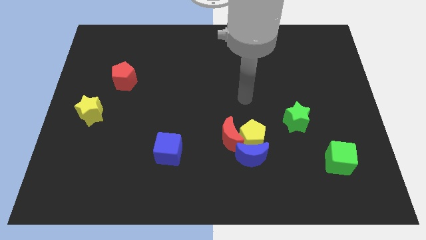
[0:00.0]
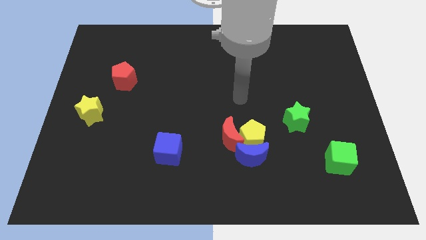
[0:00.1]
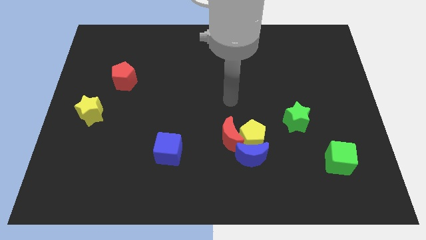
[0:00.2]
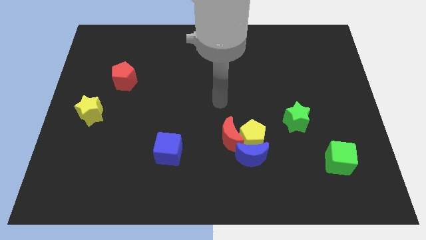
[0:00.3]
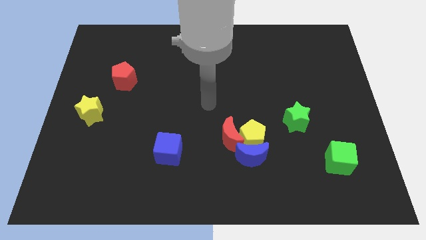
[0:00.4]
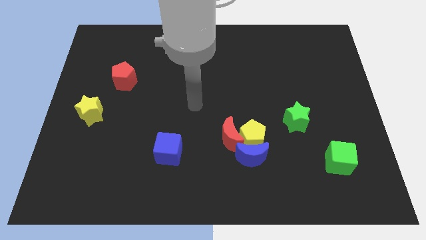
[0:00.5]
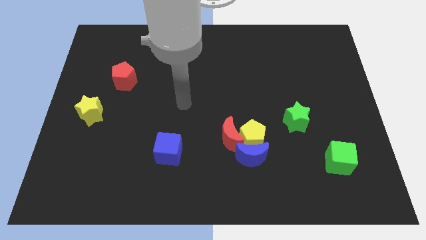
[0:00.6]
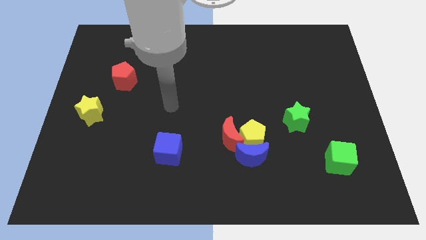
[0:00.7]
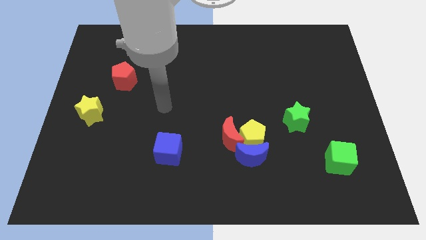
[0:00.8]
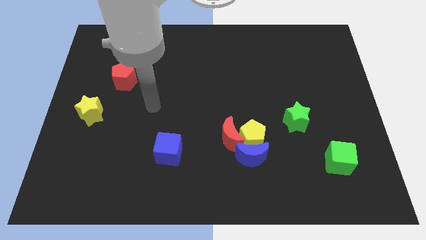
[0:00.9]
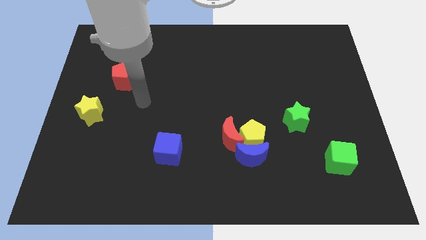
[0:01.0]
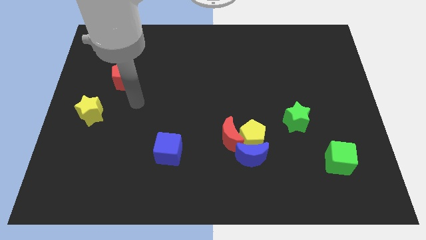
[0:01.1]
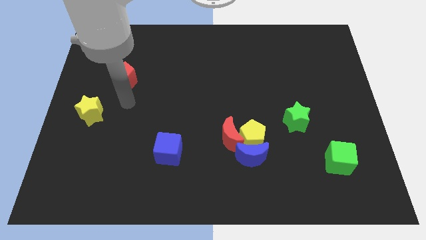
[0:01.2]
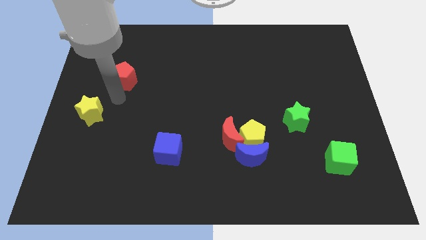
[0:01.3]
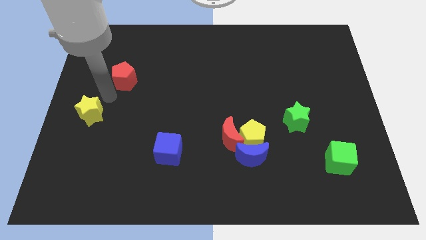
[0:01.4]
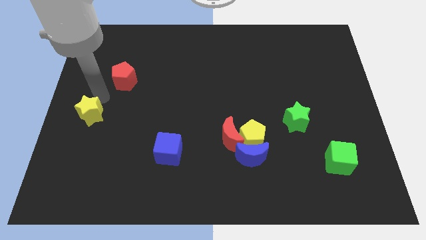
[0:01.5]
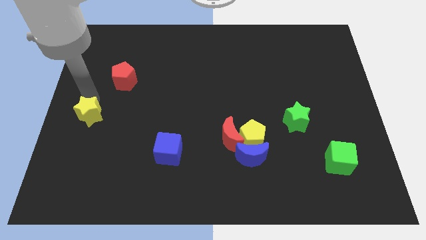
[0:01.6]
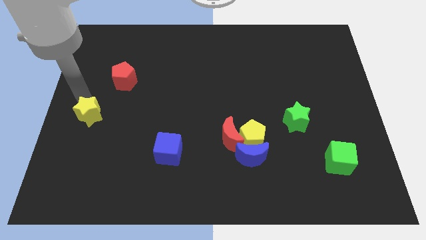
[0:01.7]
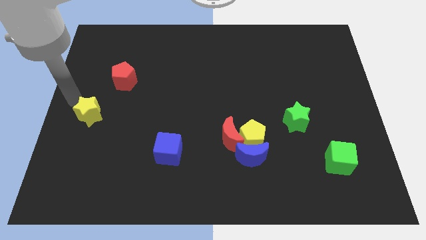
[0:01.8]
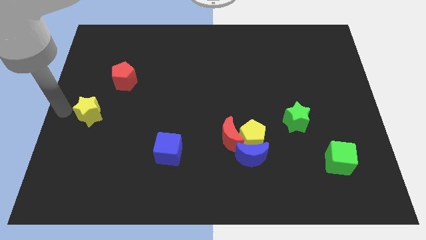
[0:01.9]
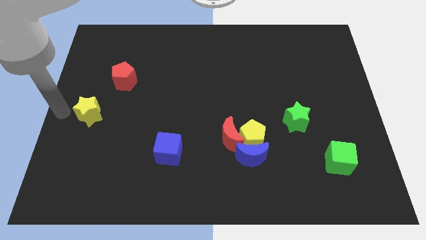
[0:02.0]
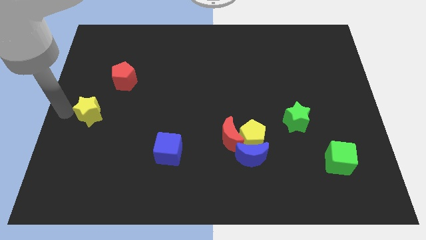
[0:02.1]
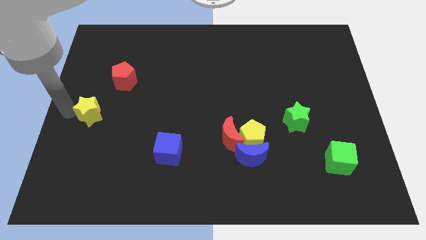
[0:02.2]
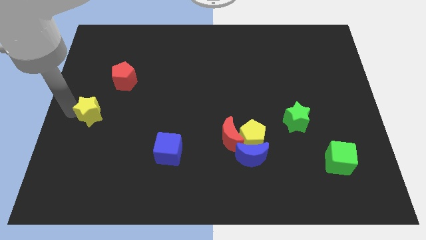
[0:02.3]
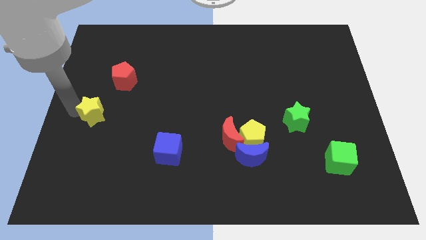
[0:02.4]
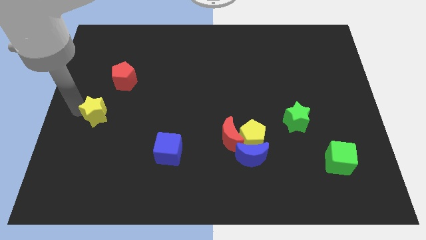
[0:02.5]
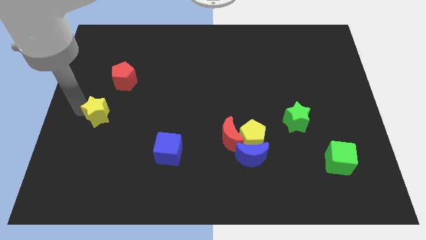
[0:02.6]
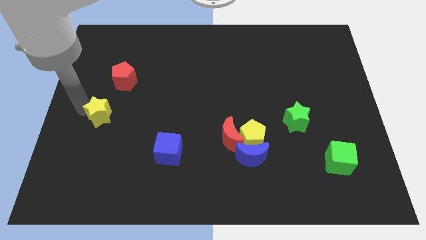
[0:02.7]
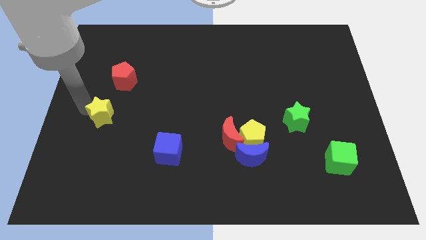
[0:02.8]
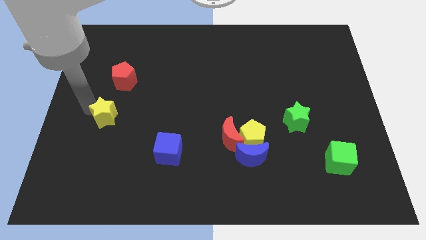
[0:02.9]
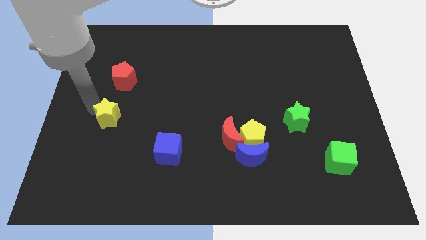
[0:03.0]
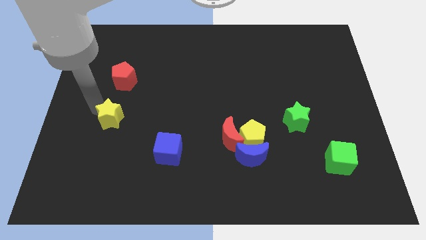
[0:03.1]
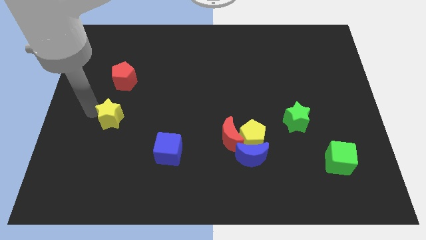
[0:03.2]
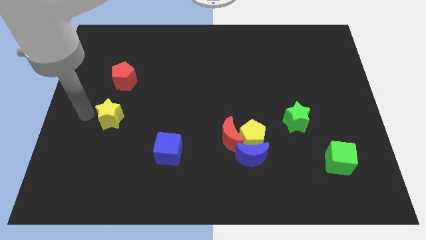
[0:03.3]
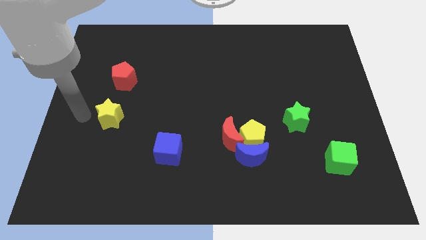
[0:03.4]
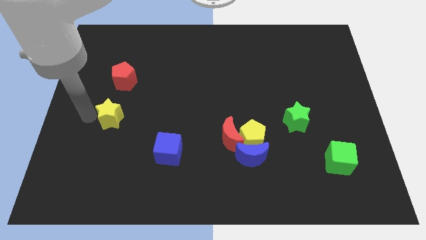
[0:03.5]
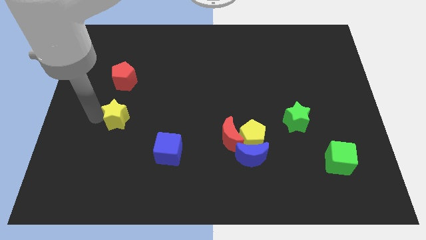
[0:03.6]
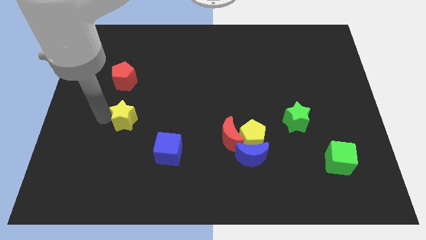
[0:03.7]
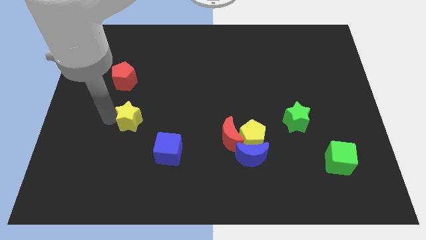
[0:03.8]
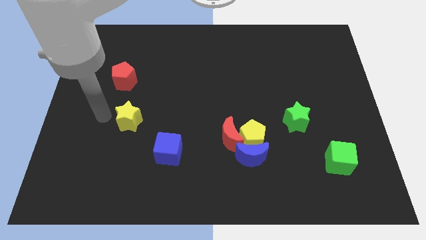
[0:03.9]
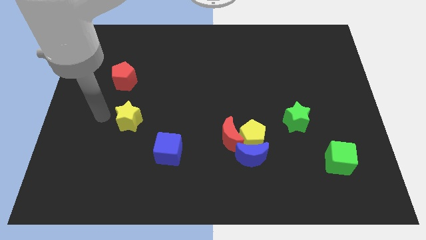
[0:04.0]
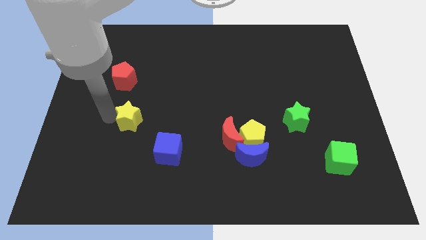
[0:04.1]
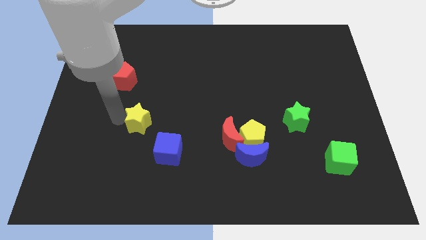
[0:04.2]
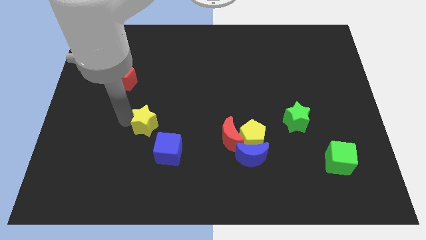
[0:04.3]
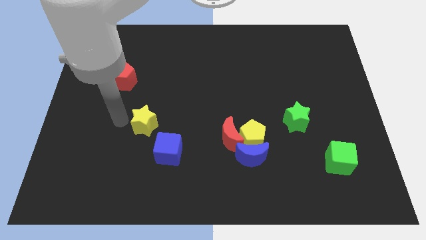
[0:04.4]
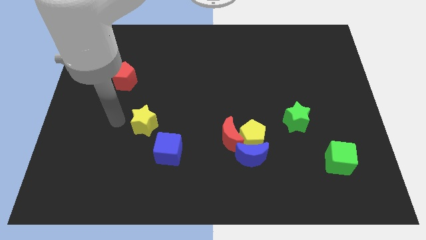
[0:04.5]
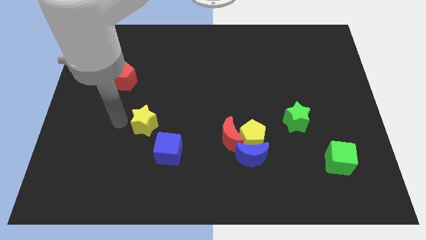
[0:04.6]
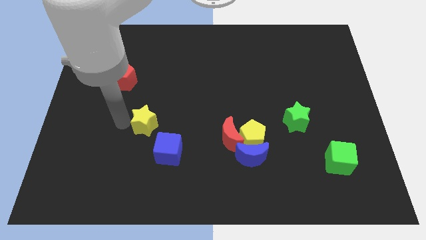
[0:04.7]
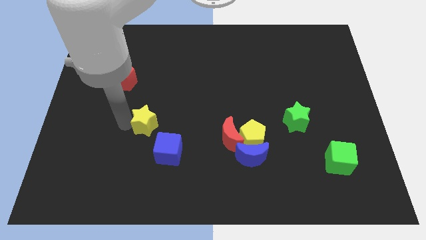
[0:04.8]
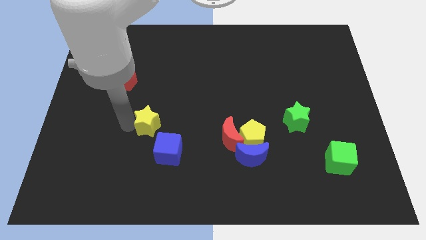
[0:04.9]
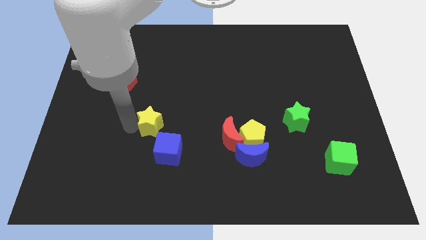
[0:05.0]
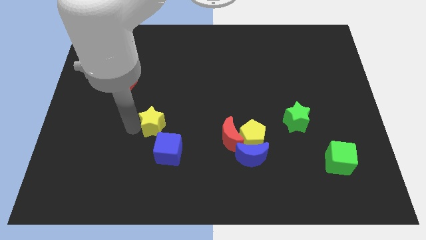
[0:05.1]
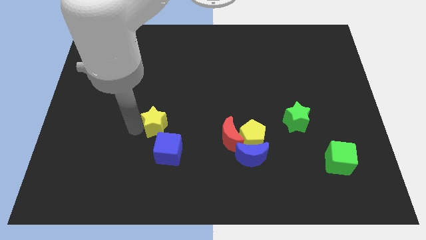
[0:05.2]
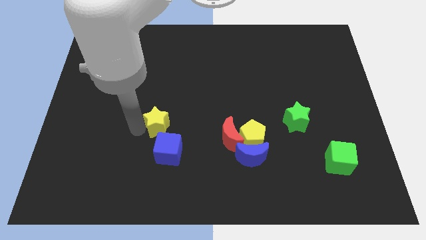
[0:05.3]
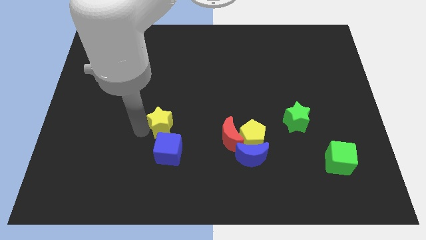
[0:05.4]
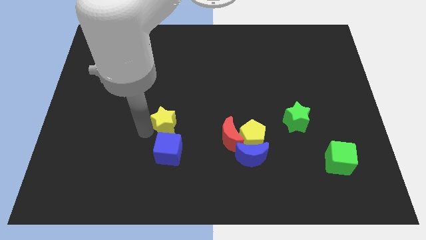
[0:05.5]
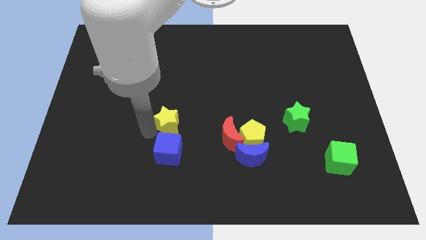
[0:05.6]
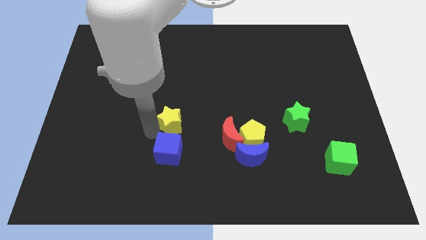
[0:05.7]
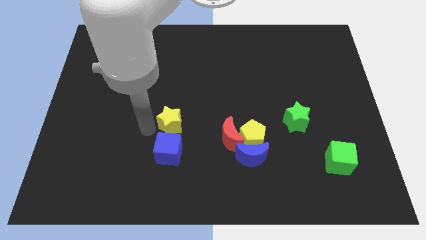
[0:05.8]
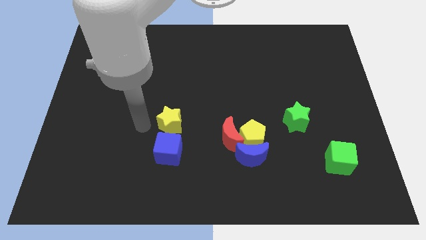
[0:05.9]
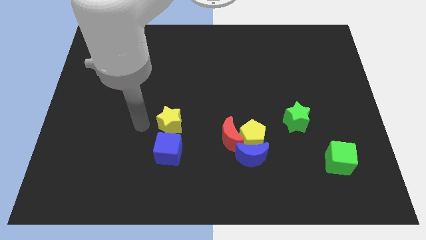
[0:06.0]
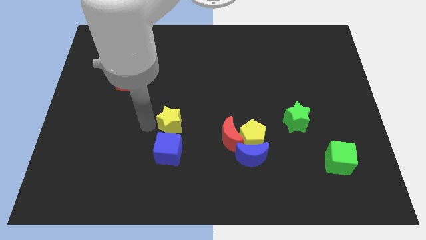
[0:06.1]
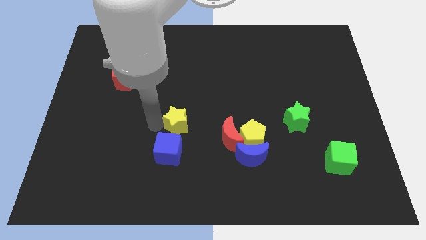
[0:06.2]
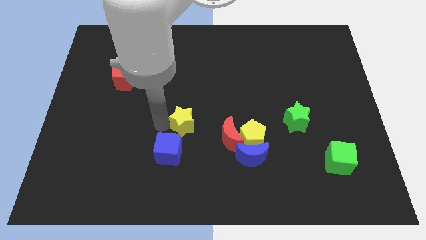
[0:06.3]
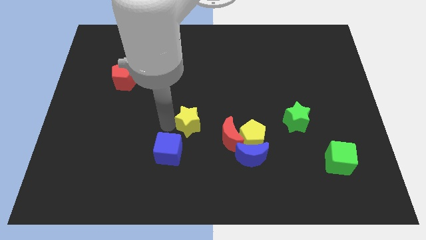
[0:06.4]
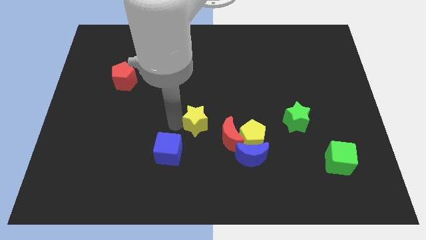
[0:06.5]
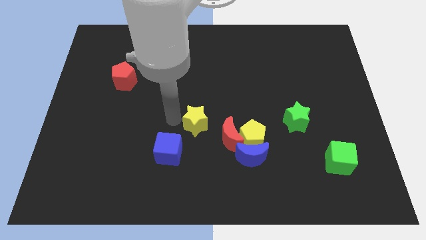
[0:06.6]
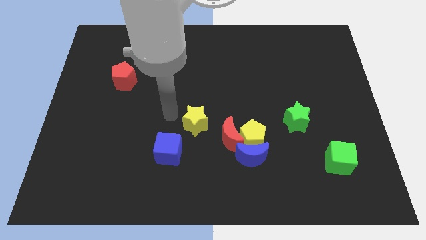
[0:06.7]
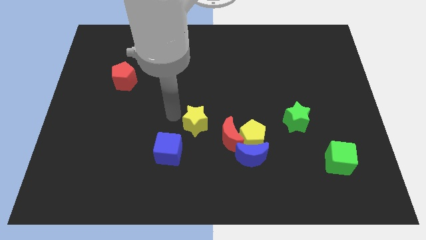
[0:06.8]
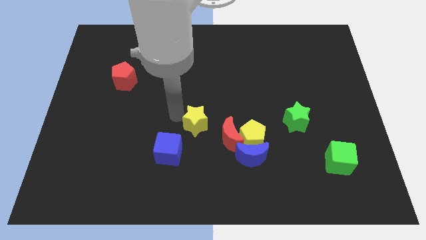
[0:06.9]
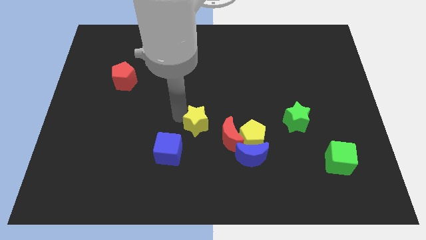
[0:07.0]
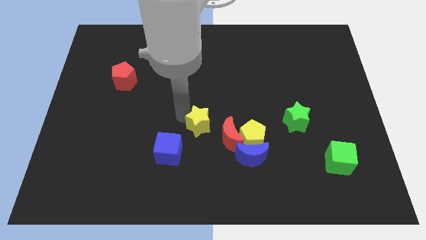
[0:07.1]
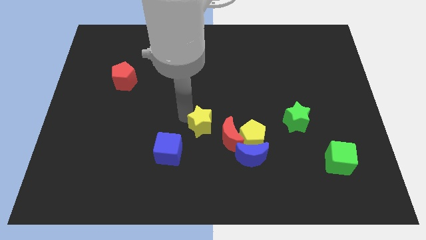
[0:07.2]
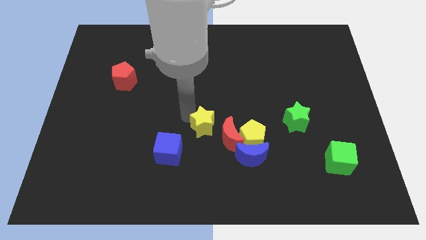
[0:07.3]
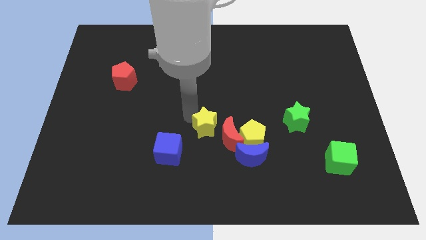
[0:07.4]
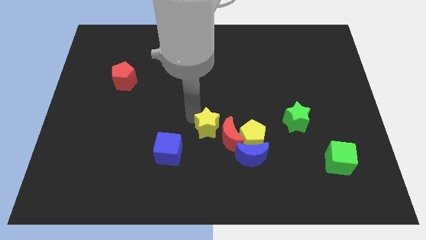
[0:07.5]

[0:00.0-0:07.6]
move the yellow star to the red moon
